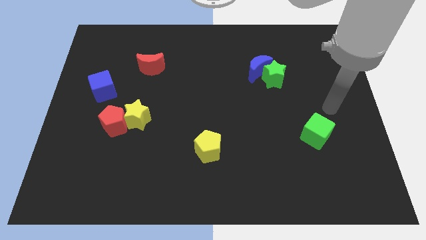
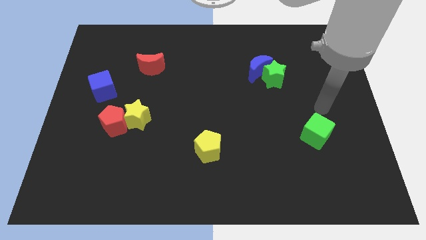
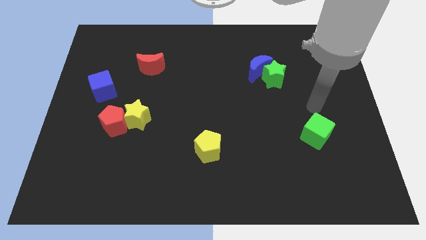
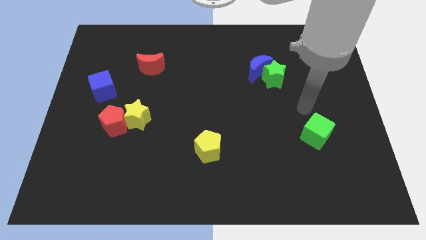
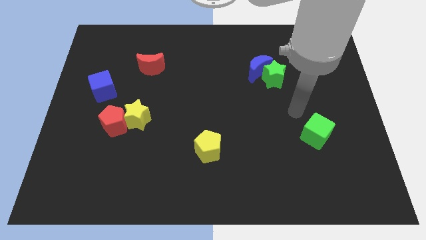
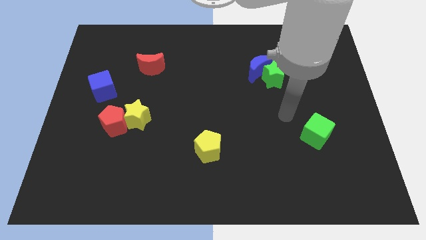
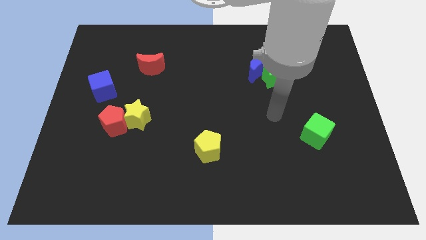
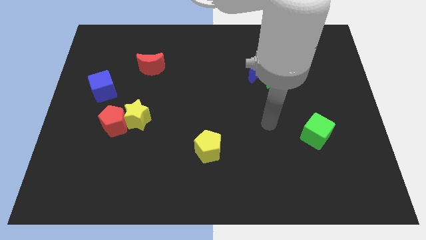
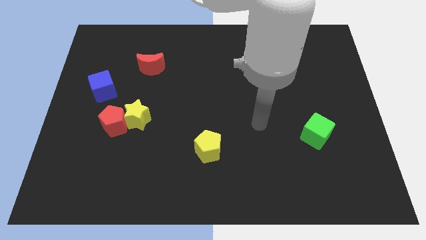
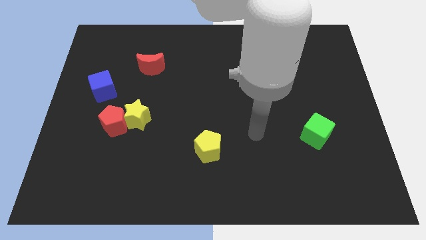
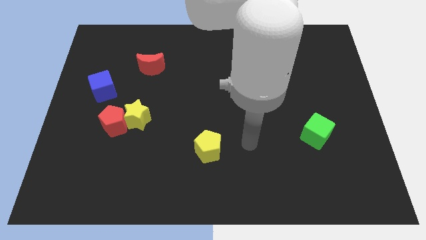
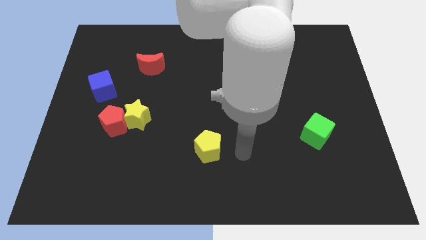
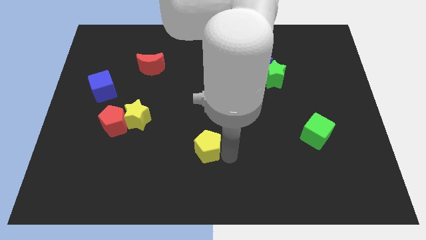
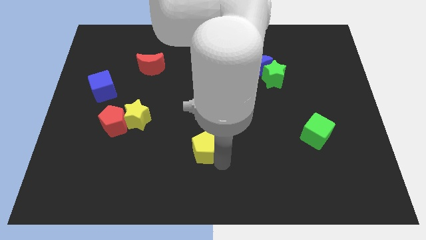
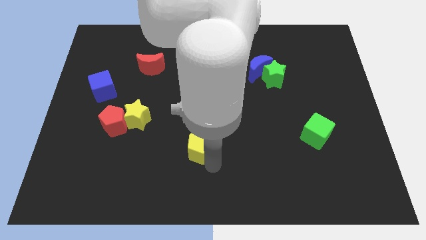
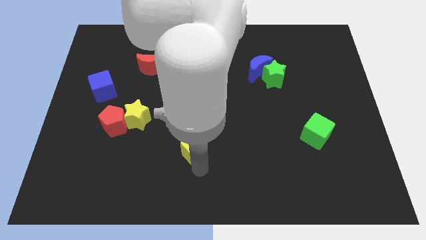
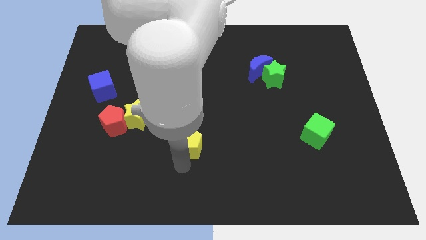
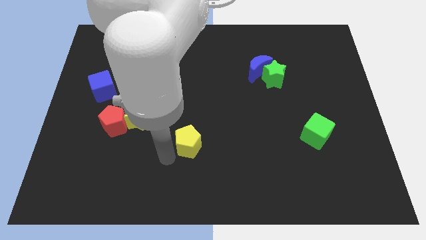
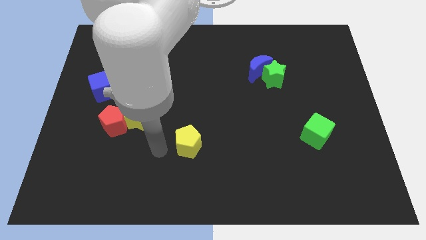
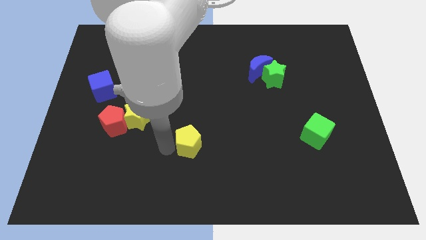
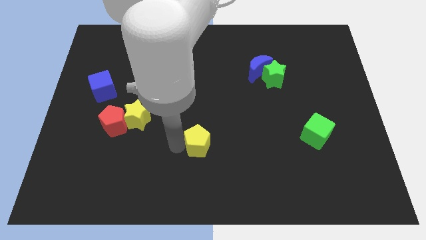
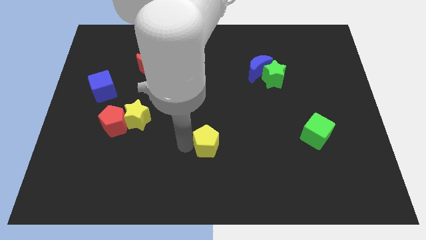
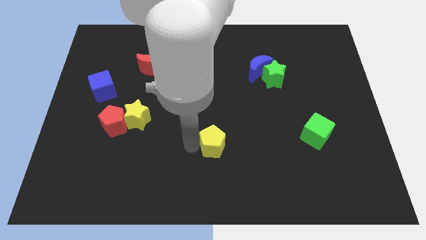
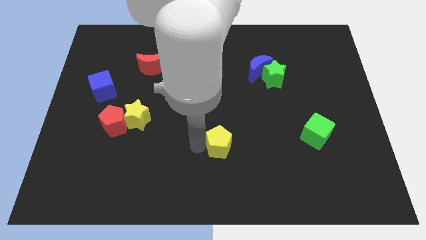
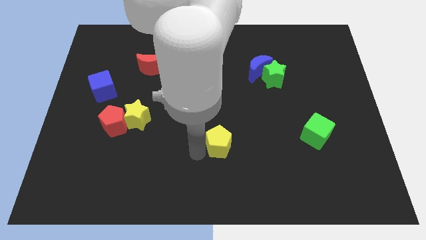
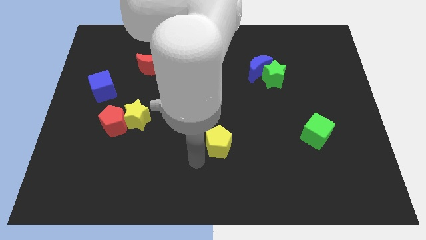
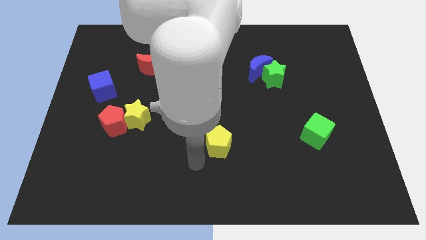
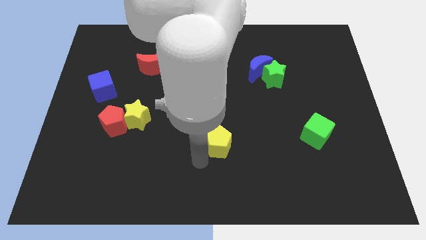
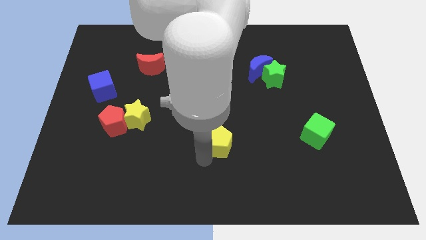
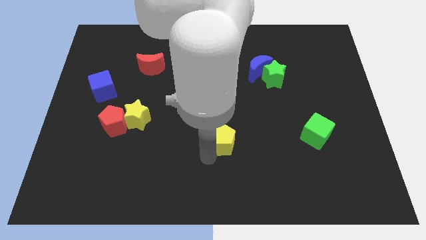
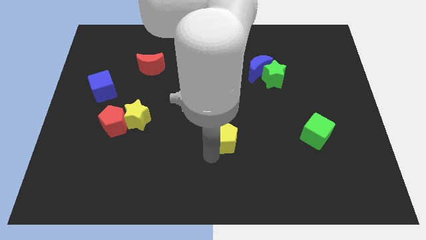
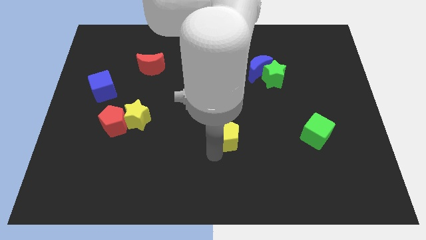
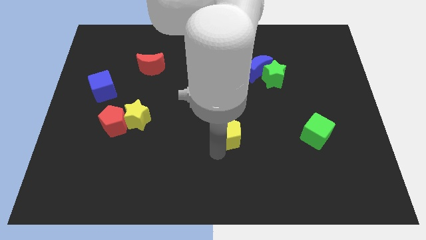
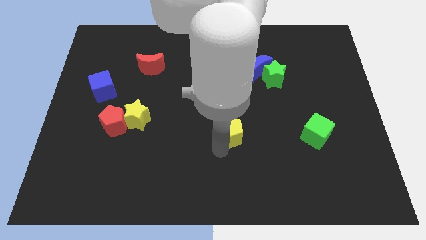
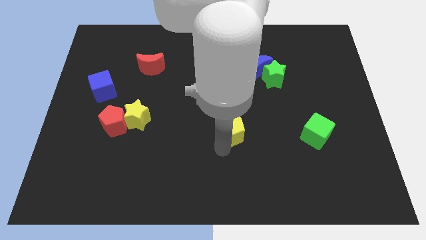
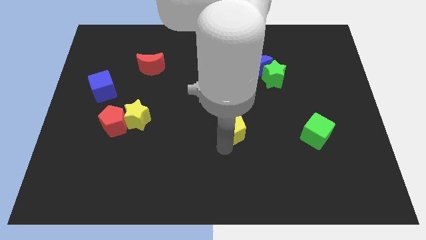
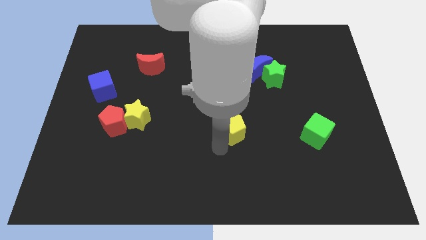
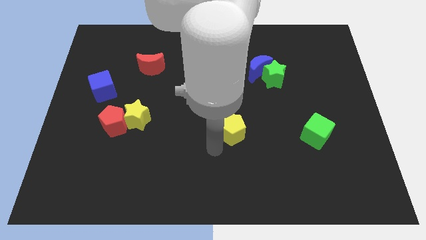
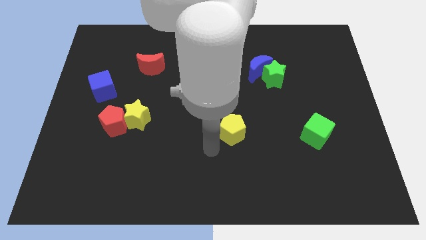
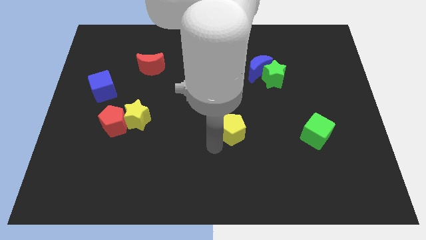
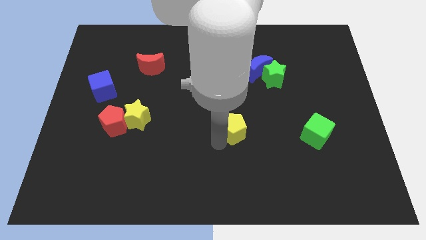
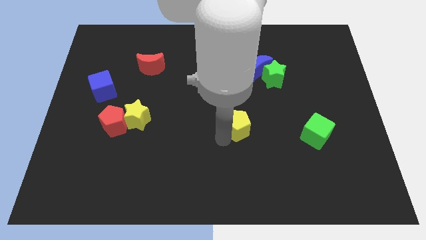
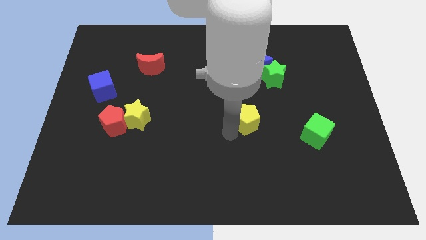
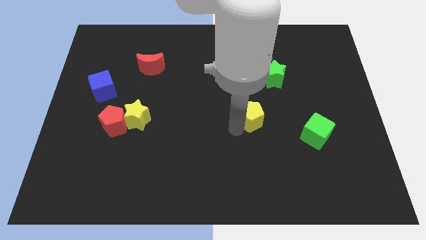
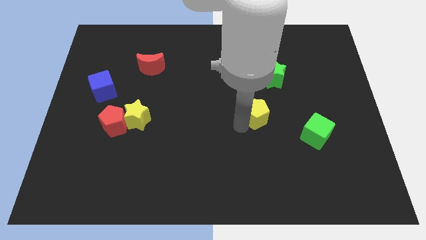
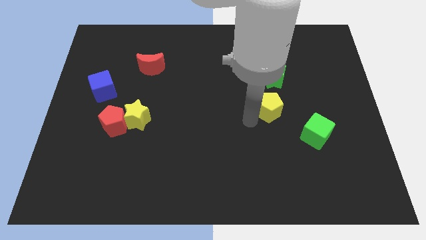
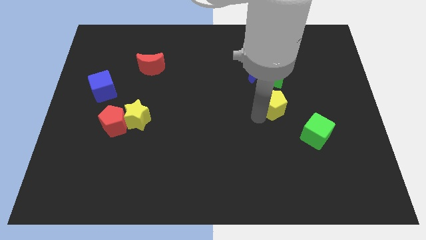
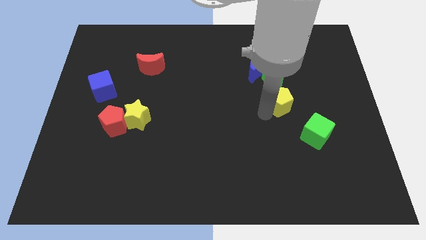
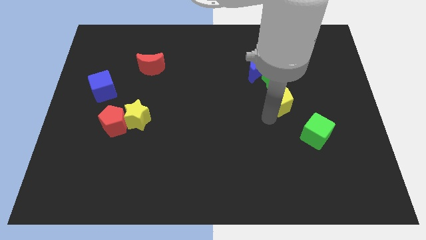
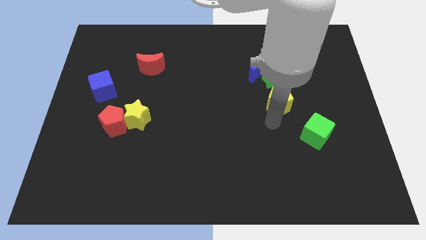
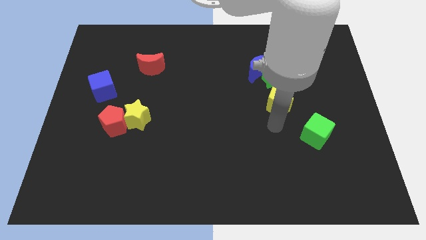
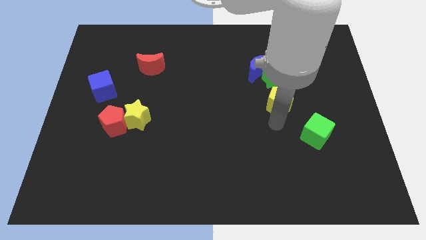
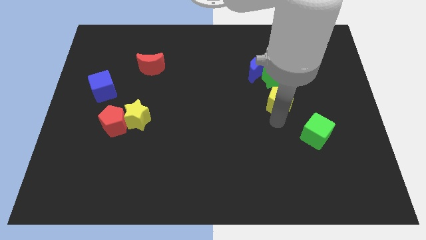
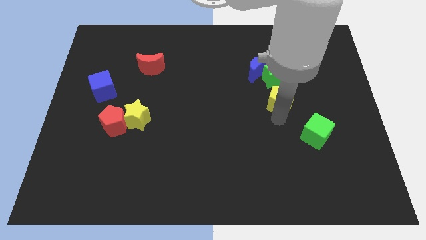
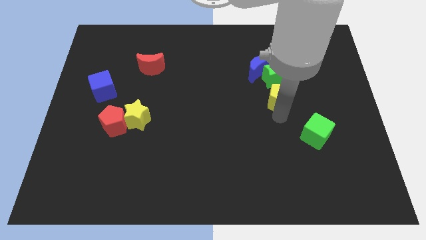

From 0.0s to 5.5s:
move the yellow pentagon to the bottom right side of the blue moon
